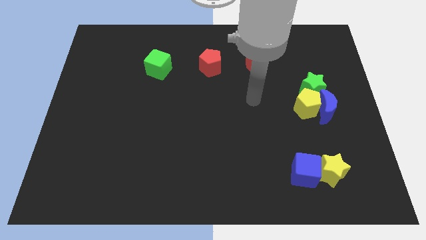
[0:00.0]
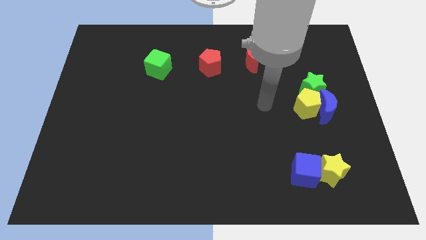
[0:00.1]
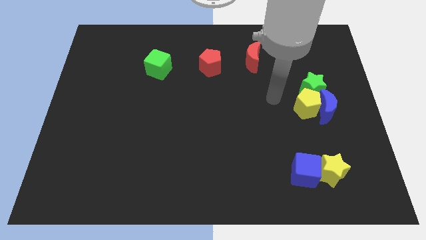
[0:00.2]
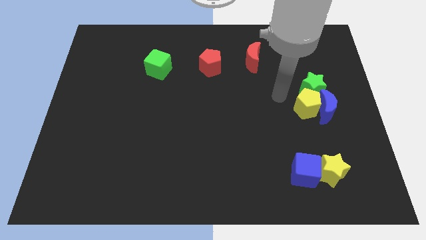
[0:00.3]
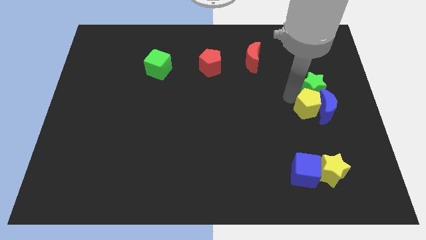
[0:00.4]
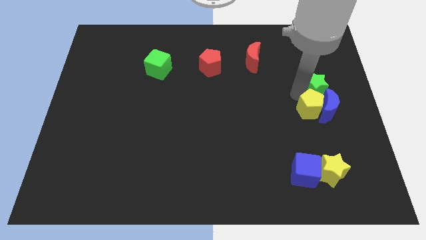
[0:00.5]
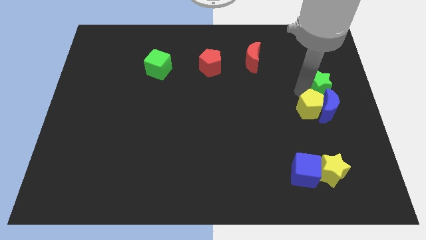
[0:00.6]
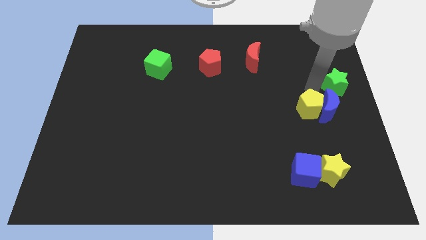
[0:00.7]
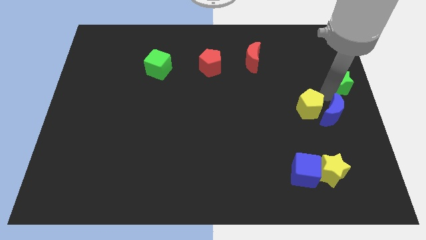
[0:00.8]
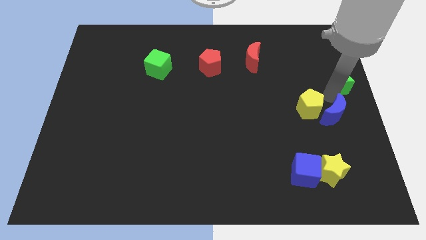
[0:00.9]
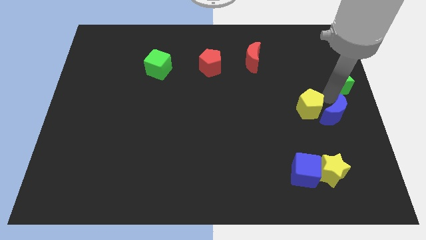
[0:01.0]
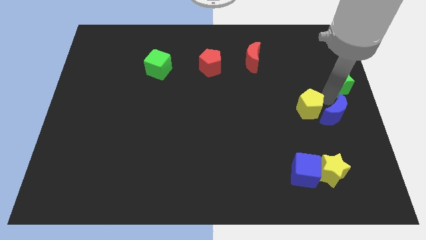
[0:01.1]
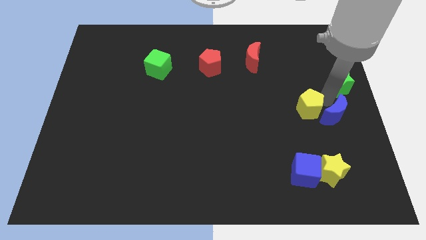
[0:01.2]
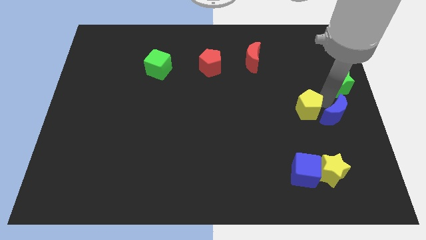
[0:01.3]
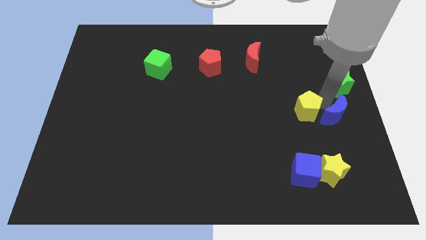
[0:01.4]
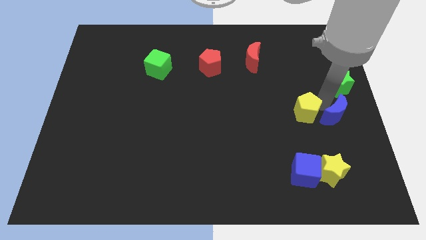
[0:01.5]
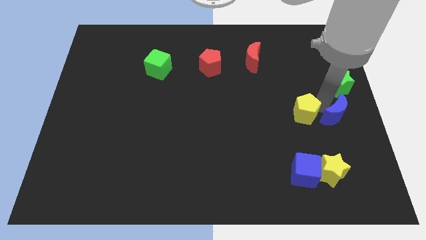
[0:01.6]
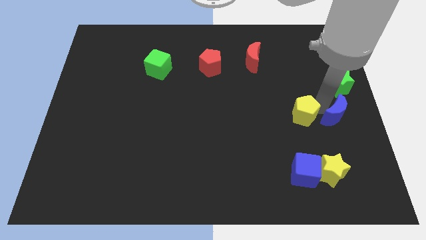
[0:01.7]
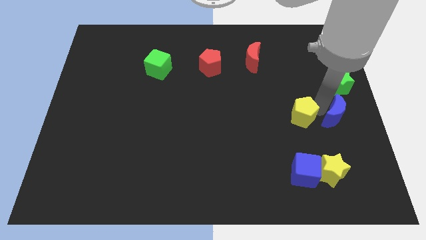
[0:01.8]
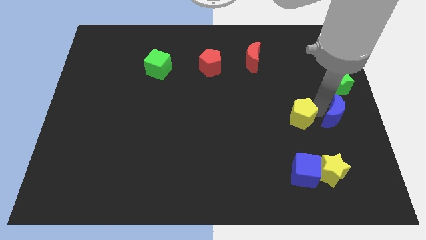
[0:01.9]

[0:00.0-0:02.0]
separate the yellow pentagon from the blue moon and green star

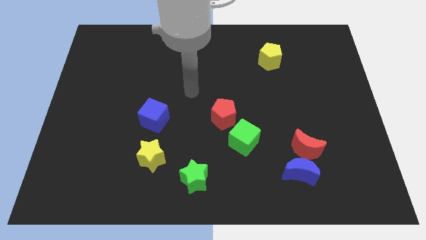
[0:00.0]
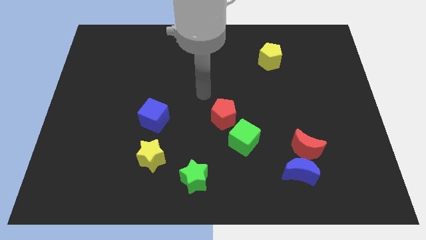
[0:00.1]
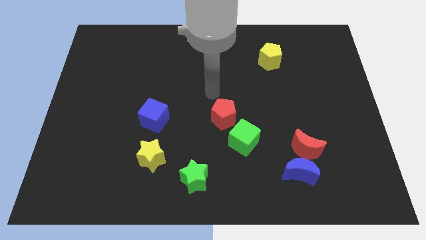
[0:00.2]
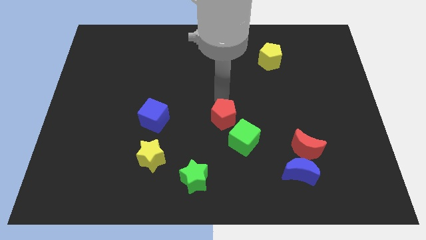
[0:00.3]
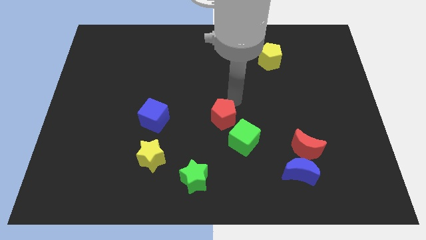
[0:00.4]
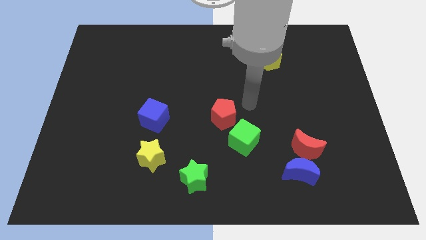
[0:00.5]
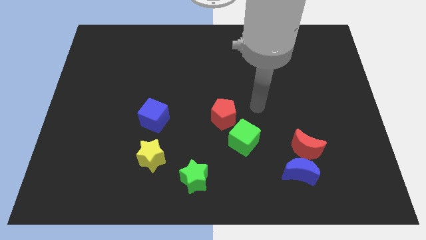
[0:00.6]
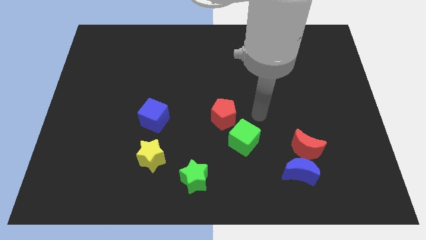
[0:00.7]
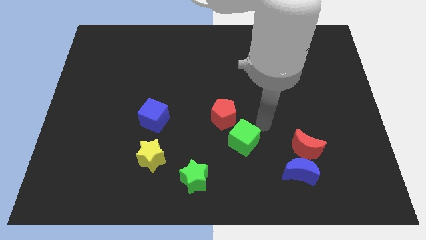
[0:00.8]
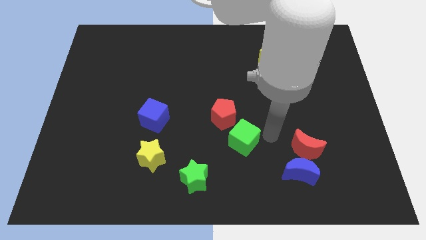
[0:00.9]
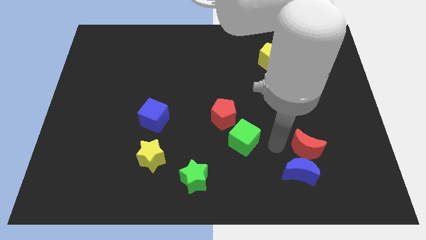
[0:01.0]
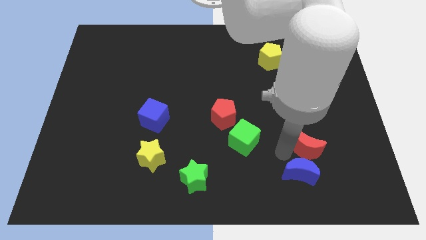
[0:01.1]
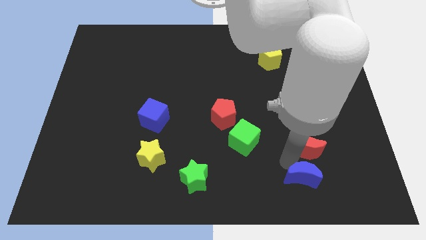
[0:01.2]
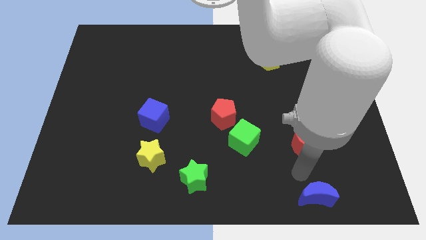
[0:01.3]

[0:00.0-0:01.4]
separate the red moon from the blue moon

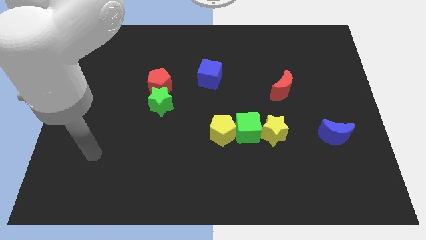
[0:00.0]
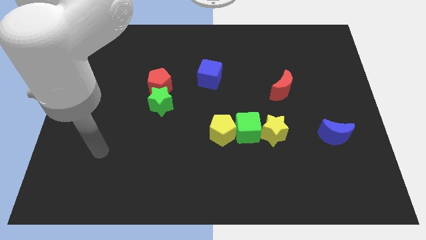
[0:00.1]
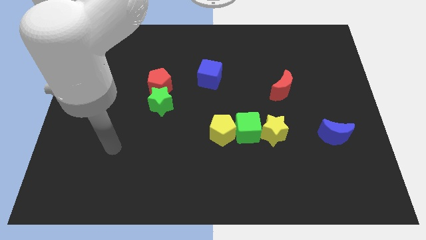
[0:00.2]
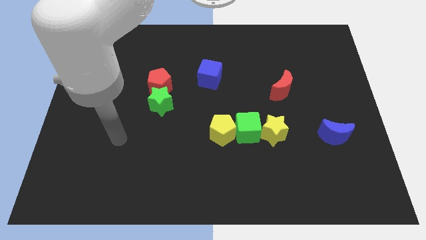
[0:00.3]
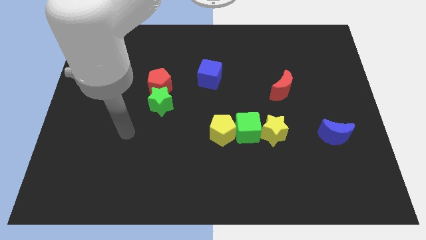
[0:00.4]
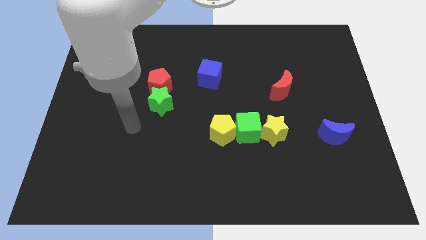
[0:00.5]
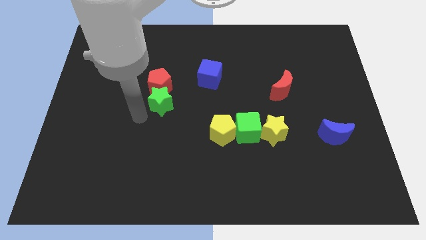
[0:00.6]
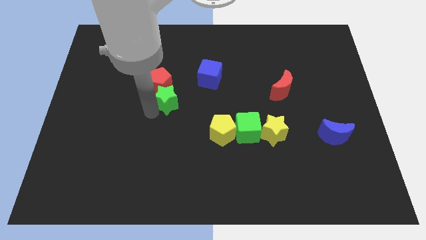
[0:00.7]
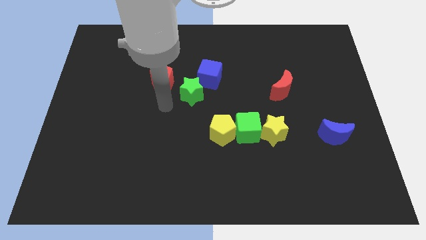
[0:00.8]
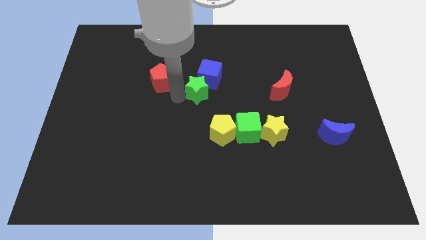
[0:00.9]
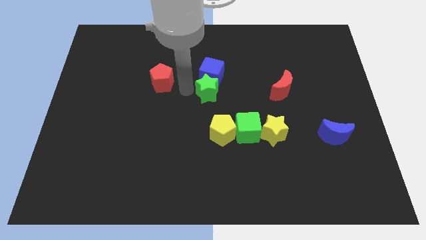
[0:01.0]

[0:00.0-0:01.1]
separate the red pentagon from the green star

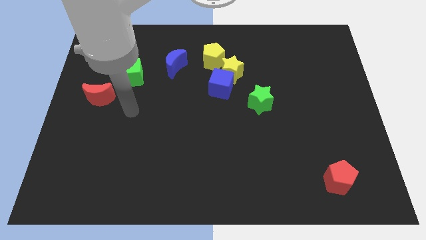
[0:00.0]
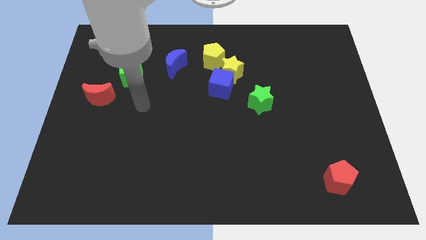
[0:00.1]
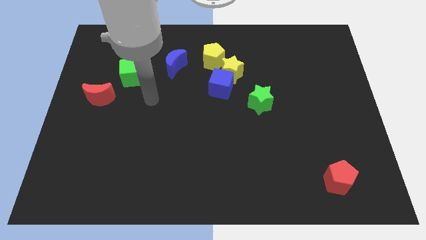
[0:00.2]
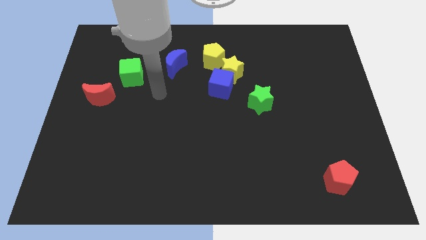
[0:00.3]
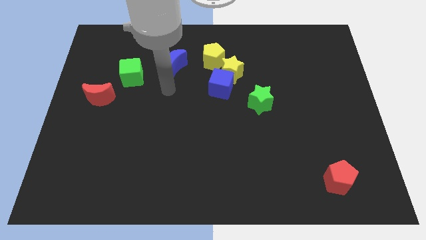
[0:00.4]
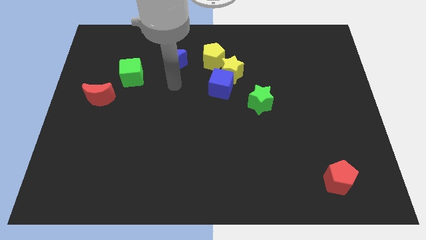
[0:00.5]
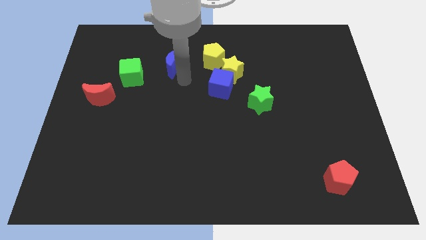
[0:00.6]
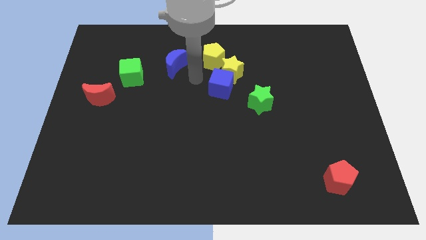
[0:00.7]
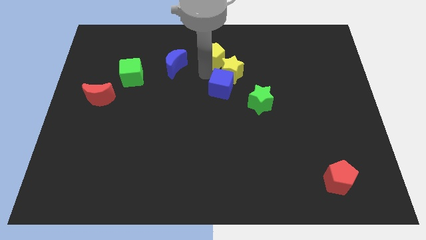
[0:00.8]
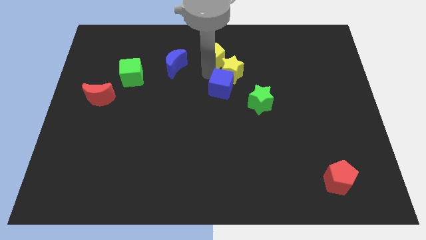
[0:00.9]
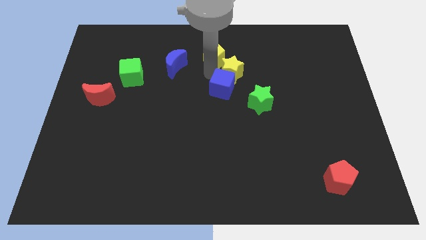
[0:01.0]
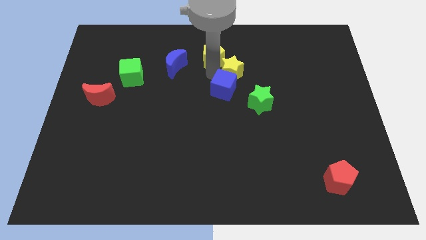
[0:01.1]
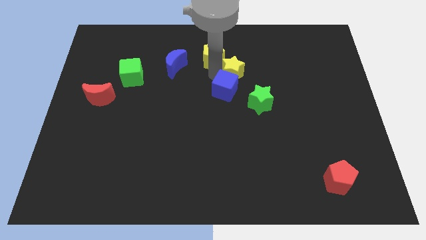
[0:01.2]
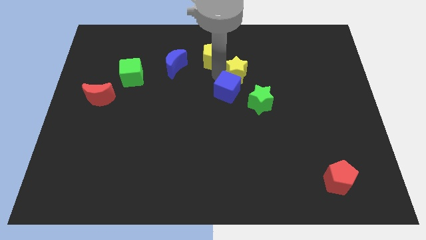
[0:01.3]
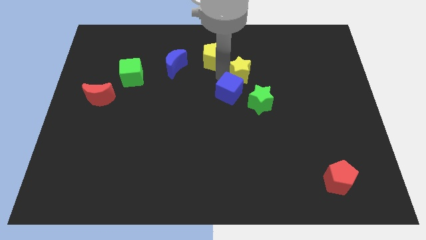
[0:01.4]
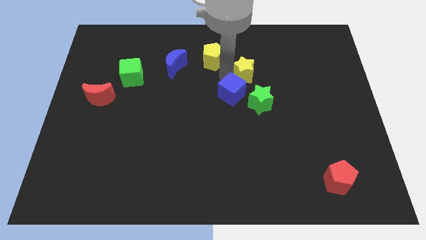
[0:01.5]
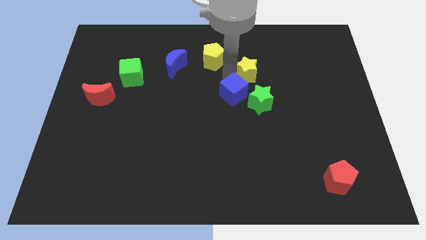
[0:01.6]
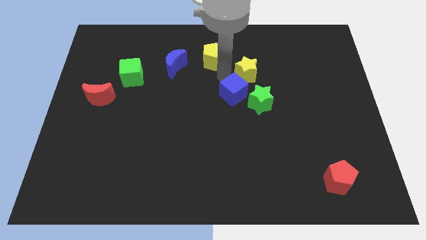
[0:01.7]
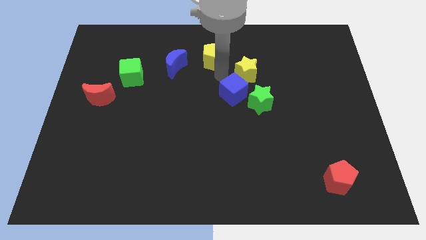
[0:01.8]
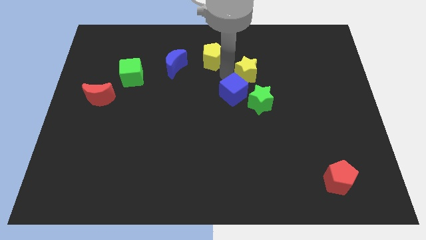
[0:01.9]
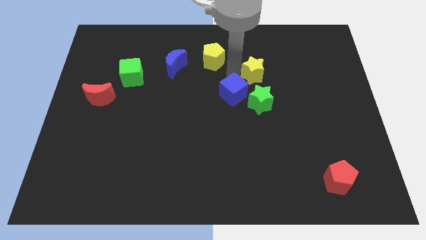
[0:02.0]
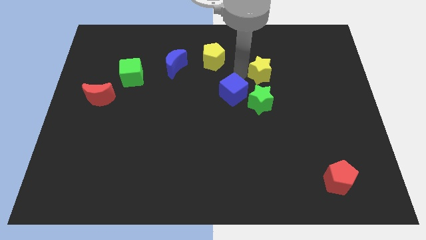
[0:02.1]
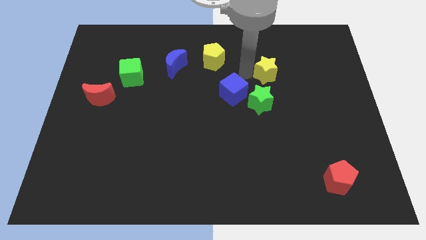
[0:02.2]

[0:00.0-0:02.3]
move the yellow star away from the blue cube and yellow pentagon

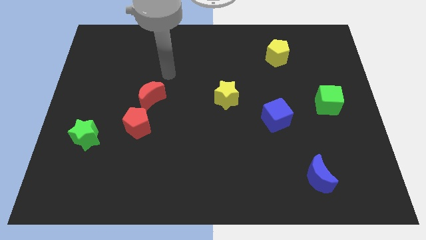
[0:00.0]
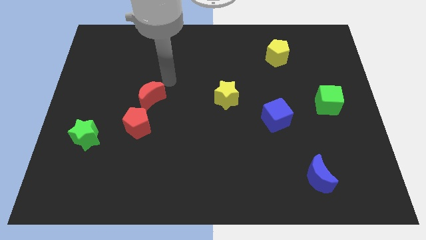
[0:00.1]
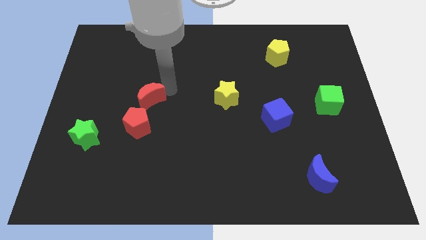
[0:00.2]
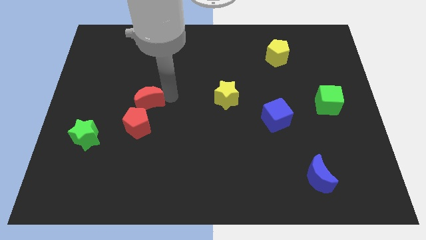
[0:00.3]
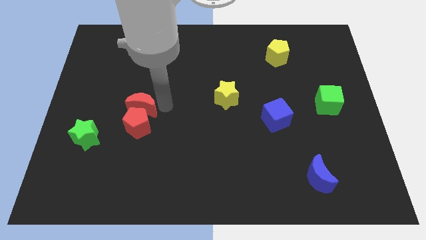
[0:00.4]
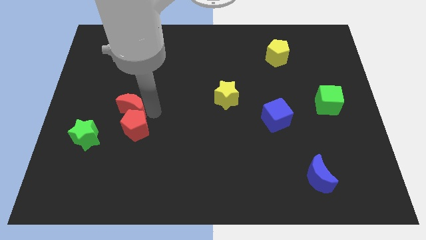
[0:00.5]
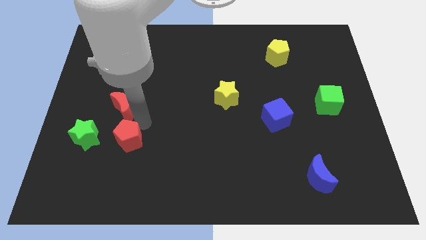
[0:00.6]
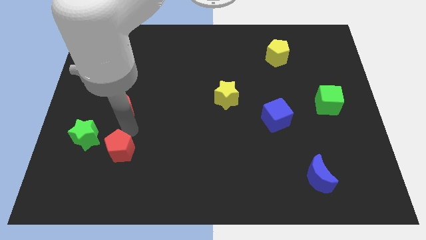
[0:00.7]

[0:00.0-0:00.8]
move the red moon away from the red pentagon

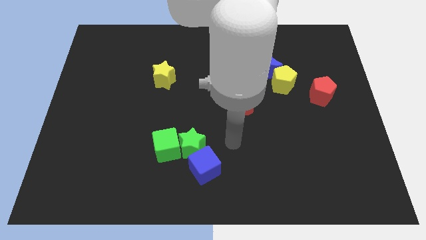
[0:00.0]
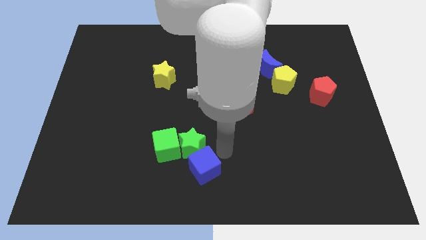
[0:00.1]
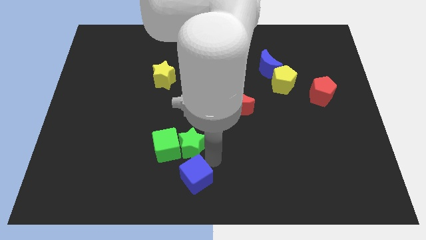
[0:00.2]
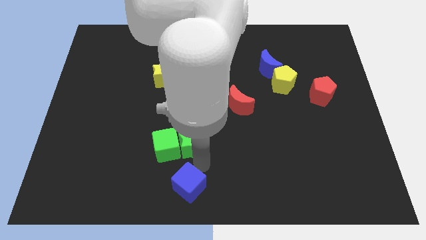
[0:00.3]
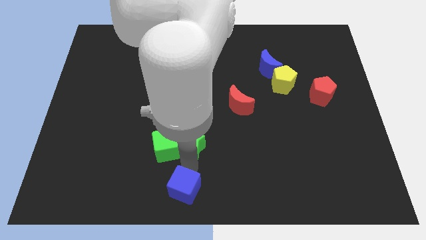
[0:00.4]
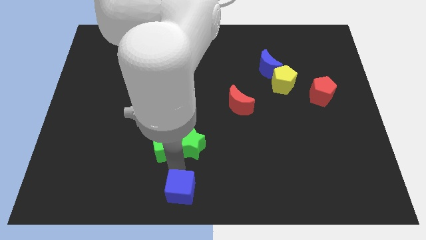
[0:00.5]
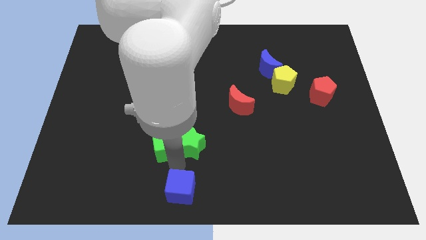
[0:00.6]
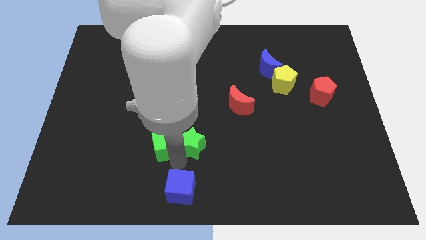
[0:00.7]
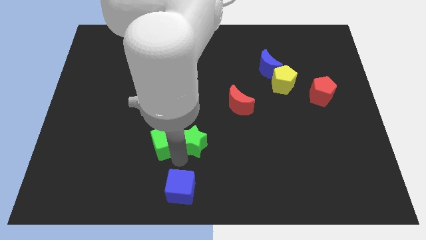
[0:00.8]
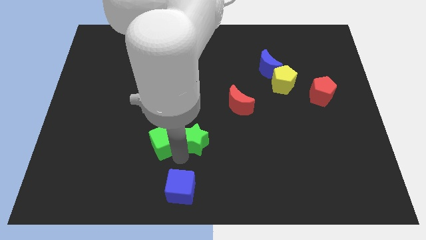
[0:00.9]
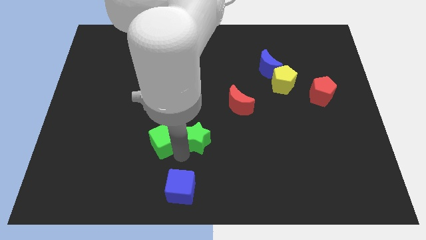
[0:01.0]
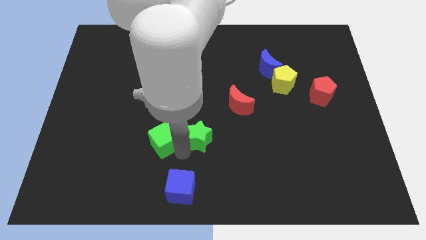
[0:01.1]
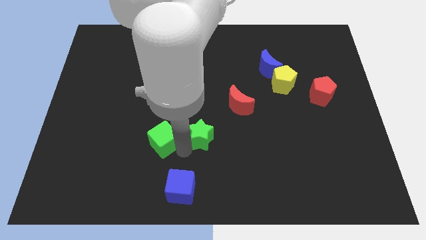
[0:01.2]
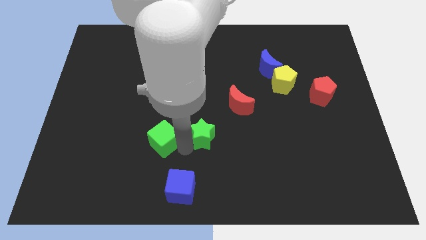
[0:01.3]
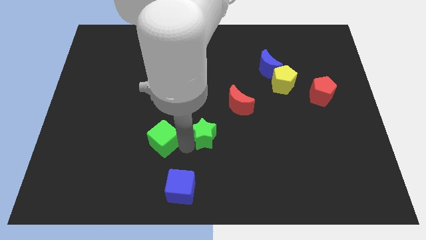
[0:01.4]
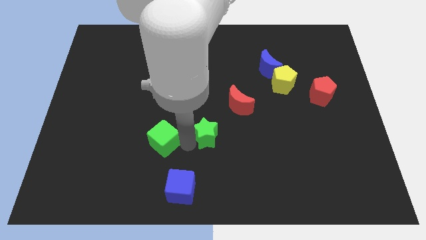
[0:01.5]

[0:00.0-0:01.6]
separate the green star from the green cube and blue cube

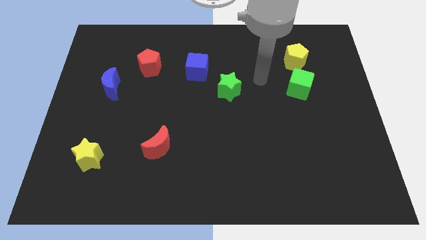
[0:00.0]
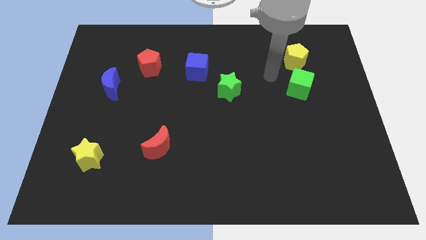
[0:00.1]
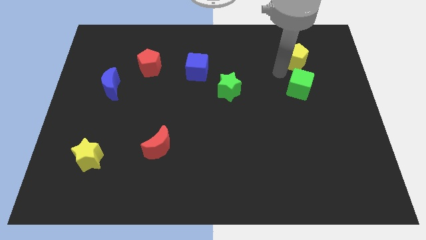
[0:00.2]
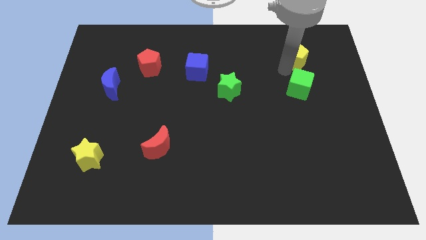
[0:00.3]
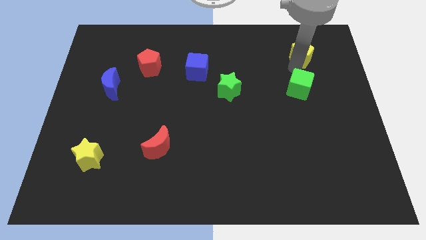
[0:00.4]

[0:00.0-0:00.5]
pull the green cube apart from the yellow pentagon
